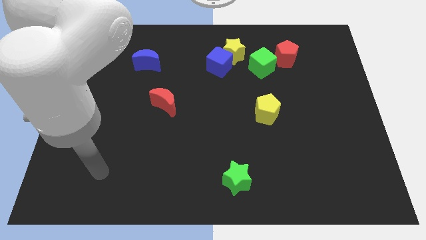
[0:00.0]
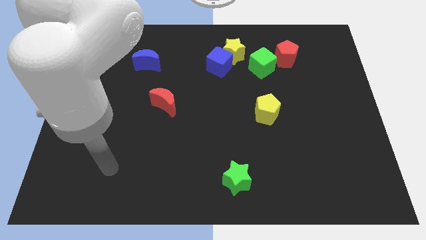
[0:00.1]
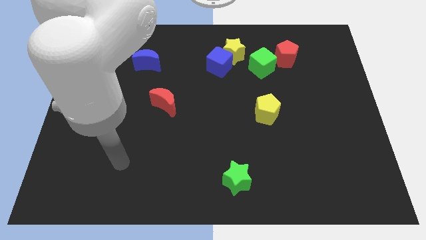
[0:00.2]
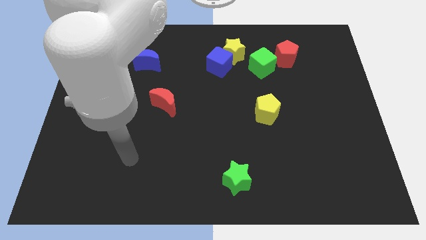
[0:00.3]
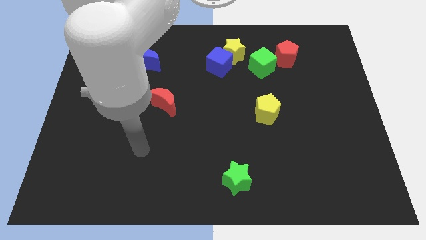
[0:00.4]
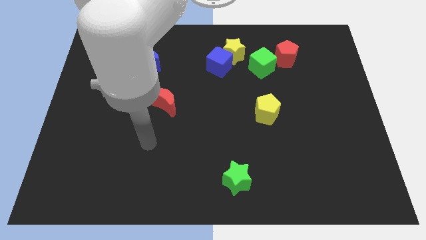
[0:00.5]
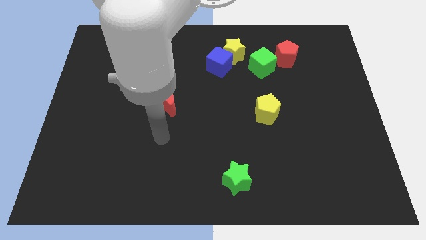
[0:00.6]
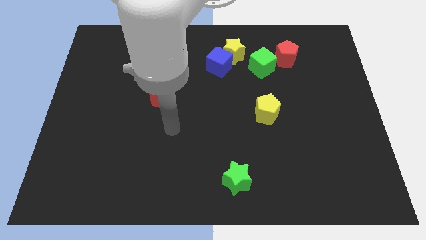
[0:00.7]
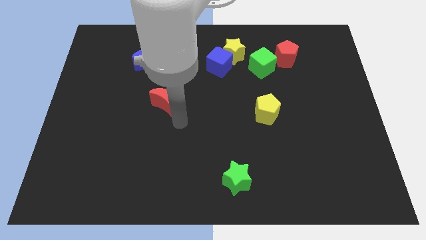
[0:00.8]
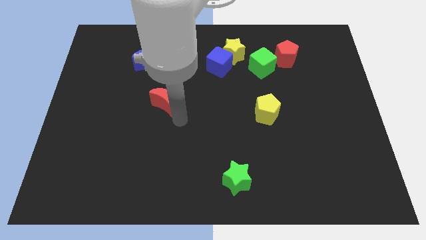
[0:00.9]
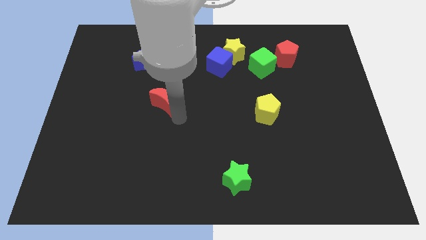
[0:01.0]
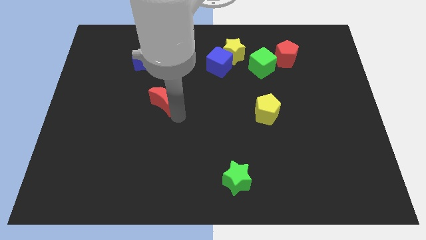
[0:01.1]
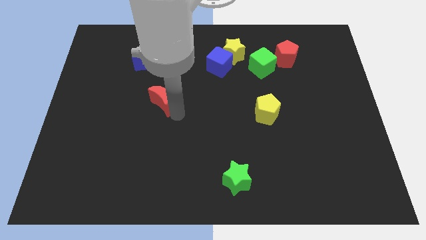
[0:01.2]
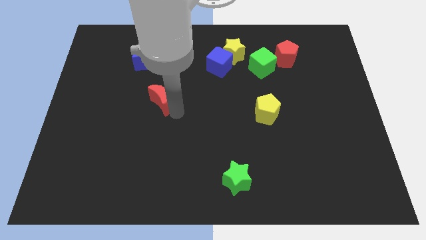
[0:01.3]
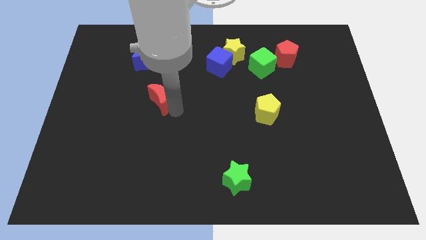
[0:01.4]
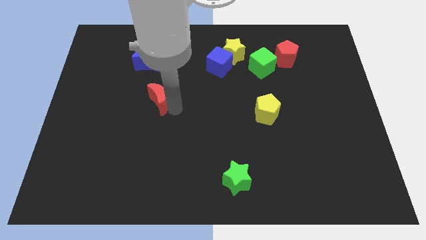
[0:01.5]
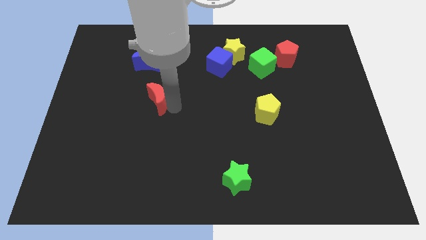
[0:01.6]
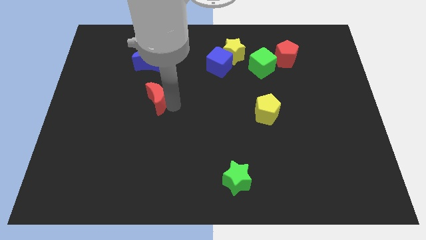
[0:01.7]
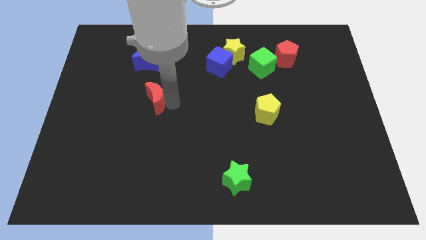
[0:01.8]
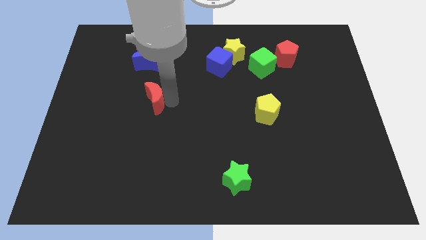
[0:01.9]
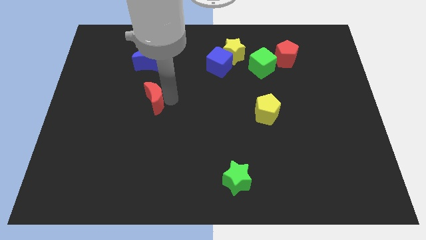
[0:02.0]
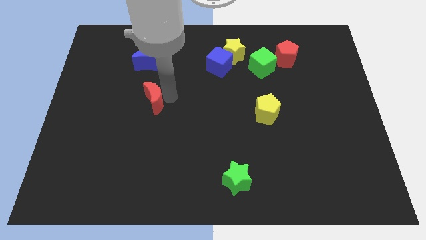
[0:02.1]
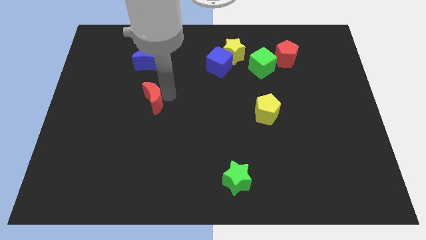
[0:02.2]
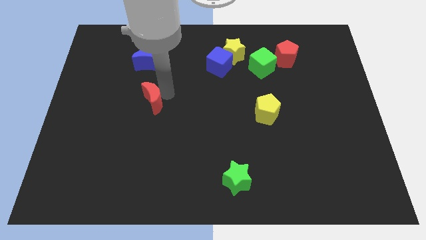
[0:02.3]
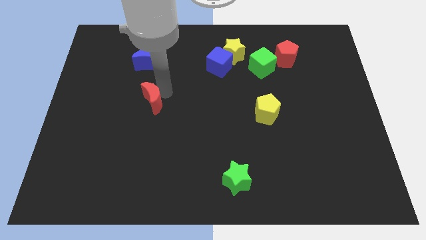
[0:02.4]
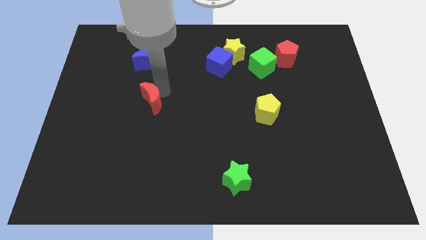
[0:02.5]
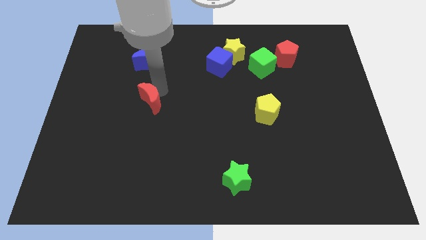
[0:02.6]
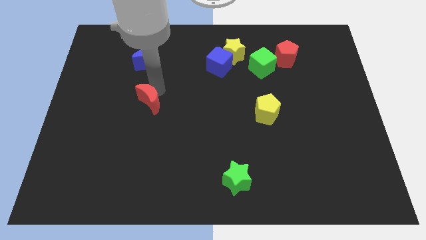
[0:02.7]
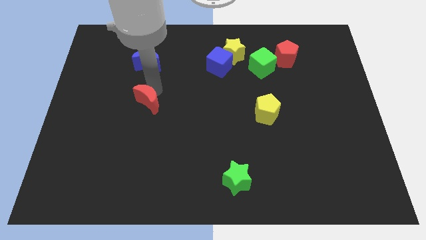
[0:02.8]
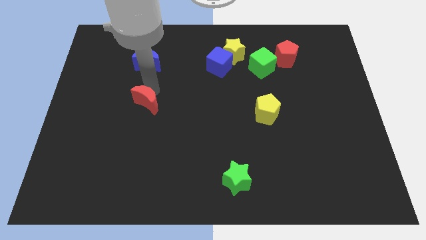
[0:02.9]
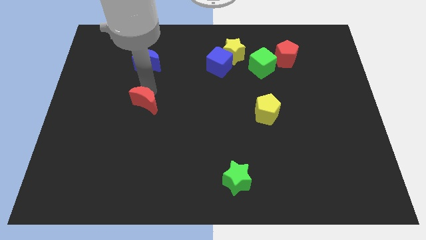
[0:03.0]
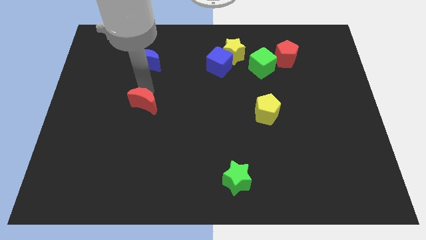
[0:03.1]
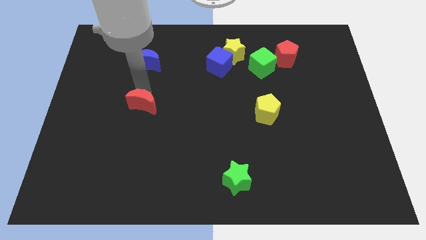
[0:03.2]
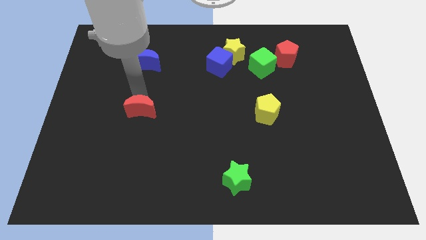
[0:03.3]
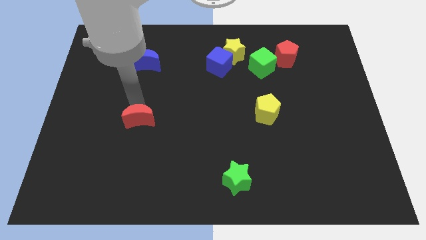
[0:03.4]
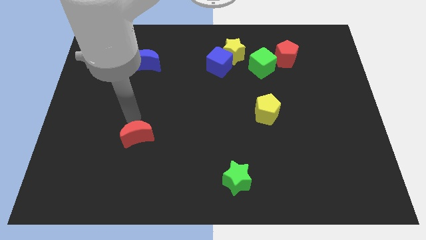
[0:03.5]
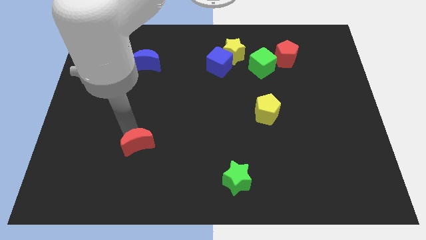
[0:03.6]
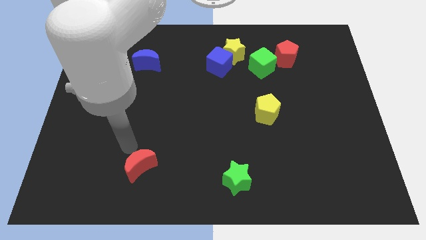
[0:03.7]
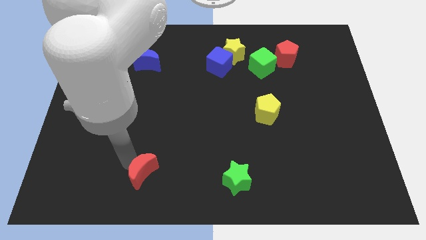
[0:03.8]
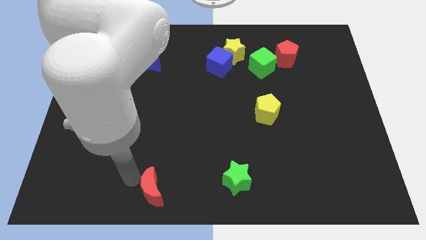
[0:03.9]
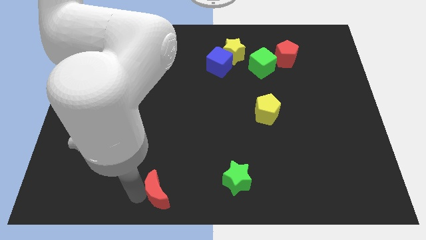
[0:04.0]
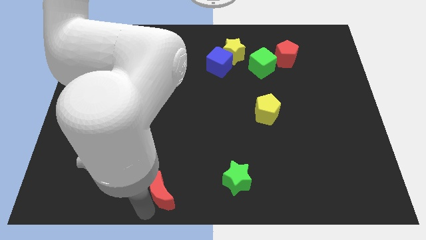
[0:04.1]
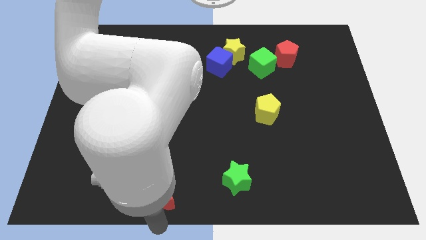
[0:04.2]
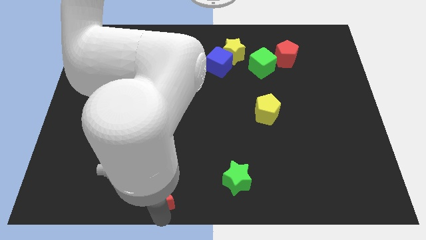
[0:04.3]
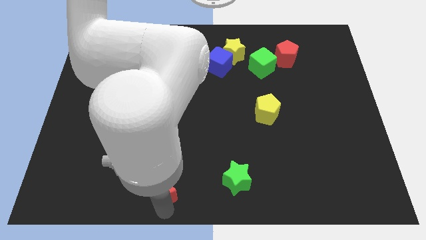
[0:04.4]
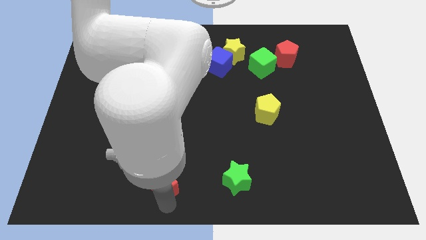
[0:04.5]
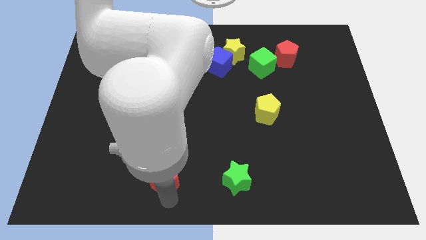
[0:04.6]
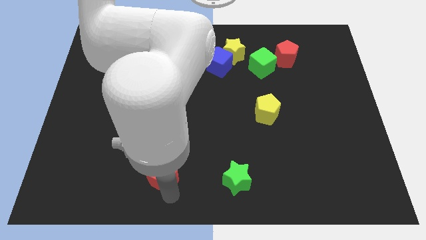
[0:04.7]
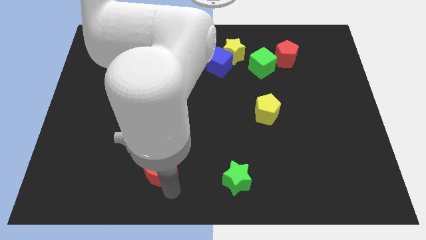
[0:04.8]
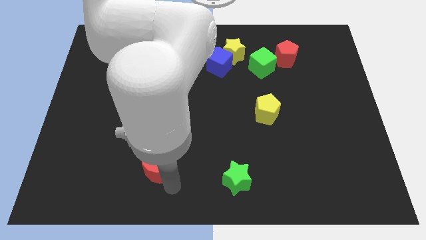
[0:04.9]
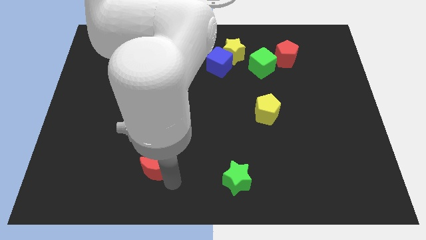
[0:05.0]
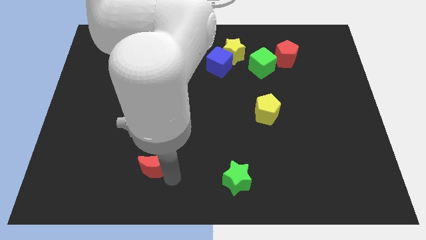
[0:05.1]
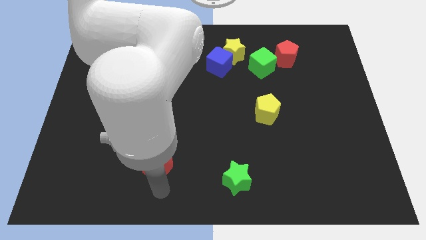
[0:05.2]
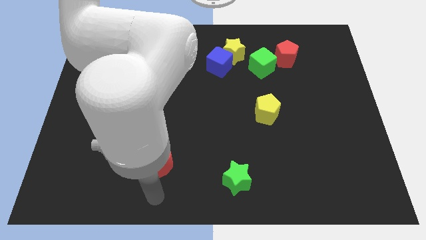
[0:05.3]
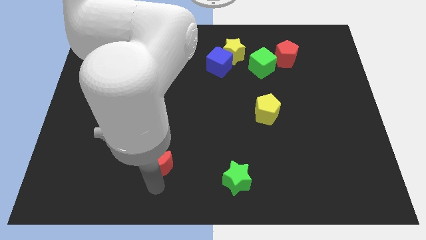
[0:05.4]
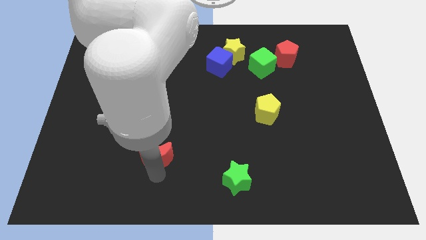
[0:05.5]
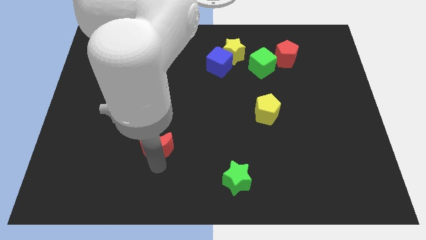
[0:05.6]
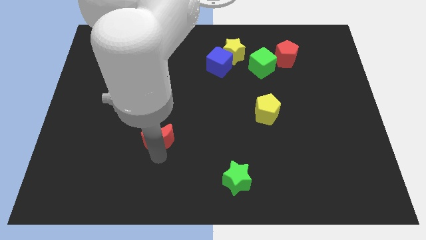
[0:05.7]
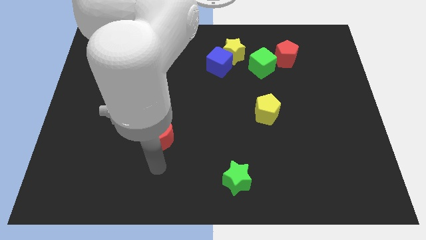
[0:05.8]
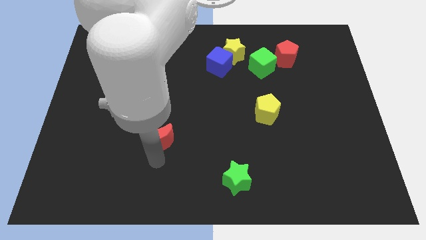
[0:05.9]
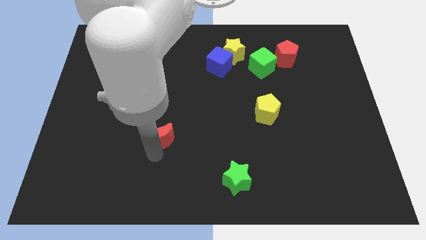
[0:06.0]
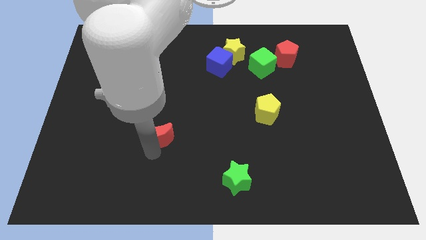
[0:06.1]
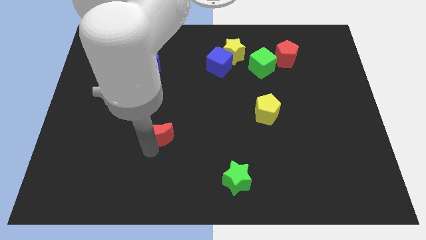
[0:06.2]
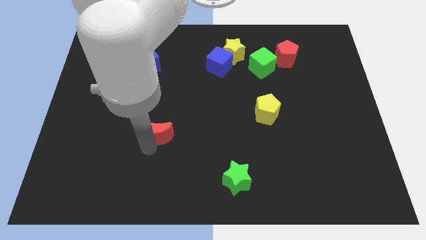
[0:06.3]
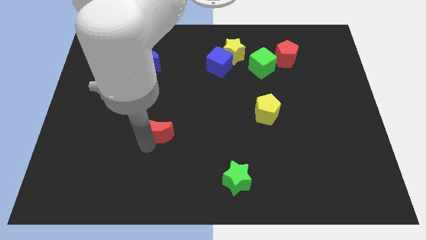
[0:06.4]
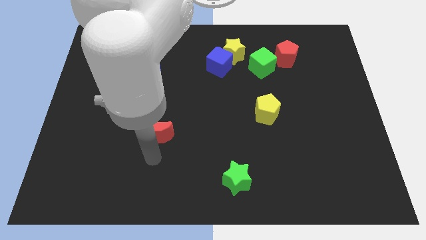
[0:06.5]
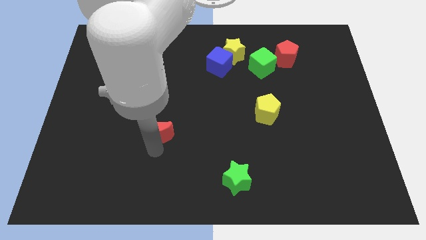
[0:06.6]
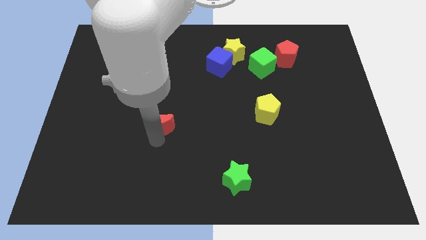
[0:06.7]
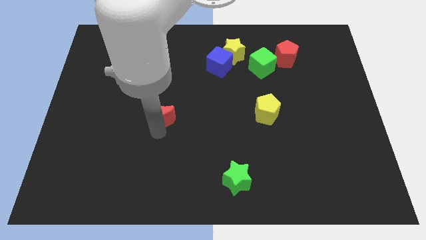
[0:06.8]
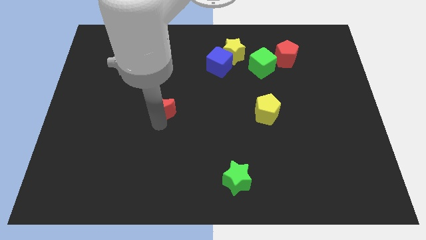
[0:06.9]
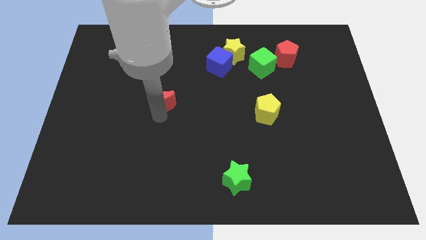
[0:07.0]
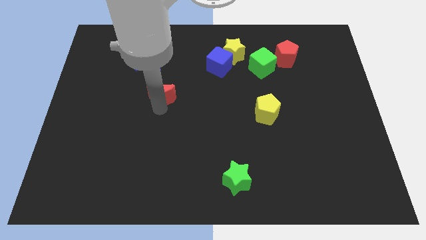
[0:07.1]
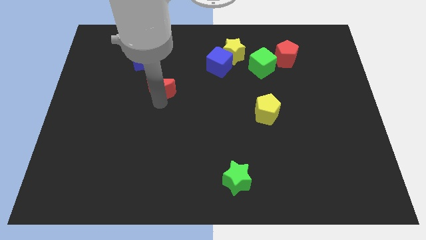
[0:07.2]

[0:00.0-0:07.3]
put the red moon to the bottom right of the blue moon
